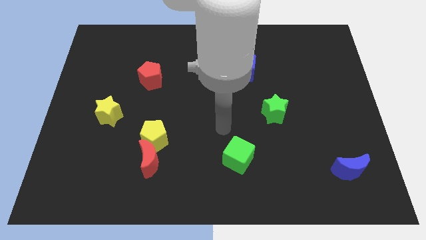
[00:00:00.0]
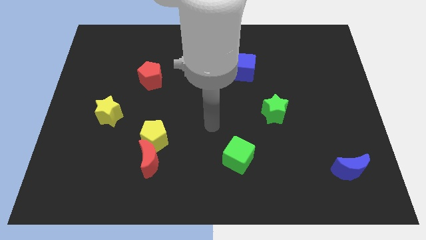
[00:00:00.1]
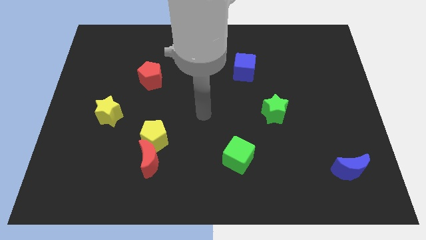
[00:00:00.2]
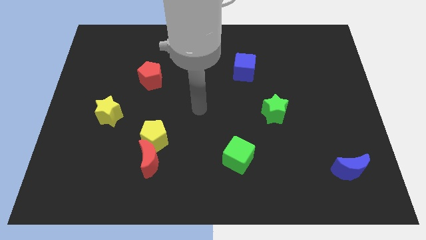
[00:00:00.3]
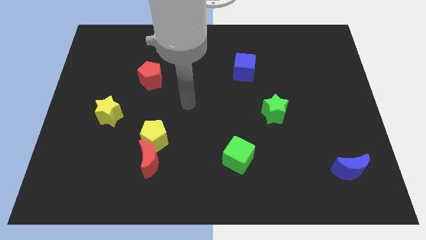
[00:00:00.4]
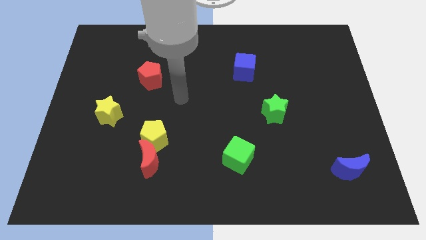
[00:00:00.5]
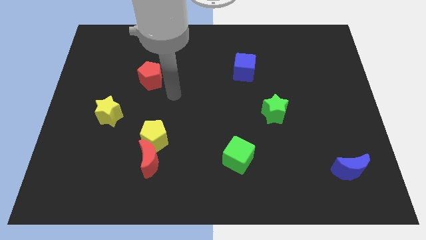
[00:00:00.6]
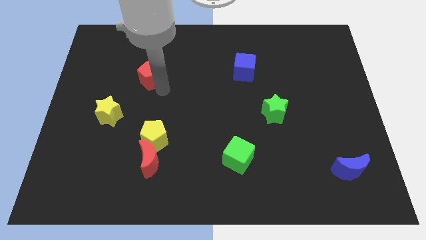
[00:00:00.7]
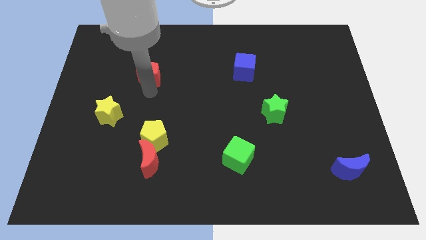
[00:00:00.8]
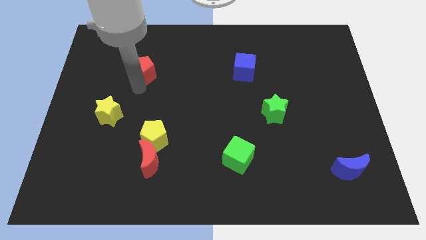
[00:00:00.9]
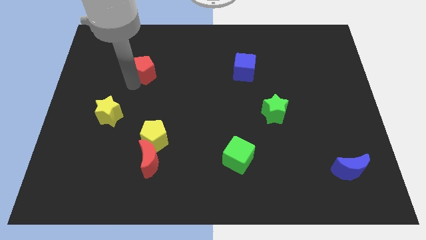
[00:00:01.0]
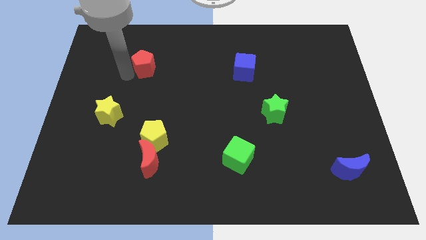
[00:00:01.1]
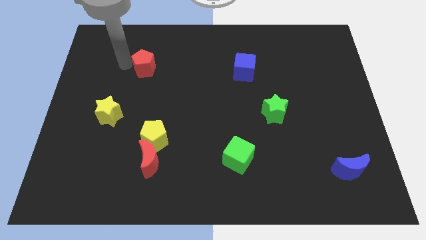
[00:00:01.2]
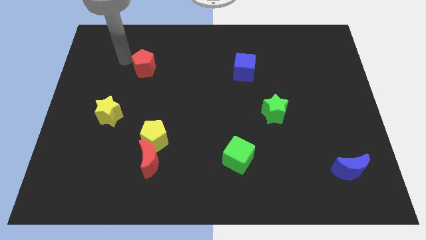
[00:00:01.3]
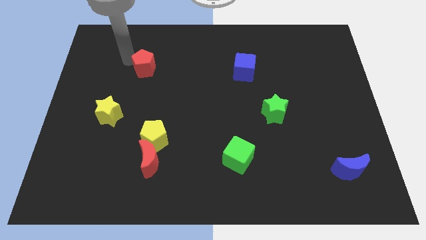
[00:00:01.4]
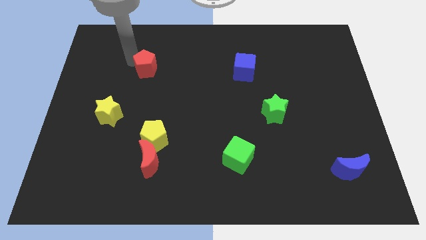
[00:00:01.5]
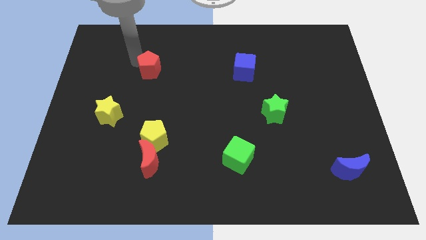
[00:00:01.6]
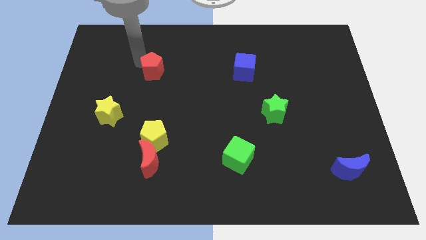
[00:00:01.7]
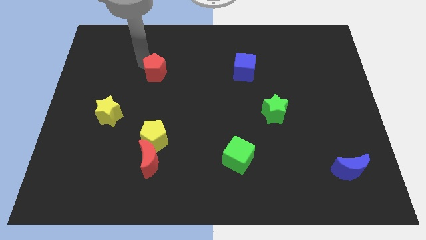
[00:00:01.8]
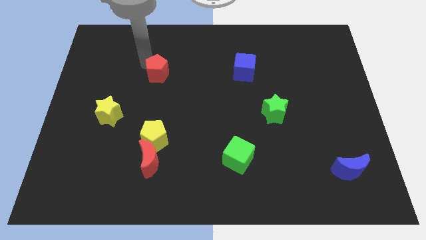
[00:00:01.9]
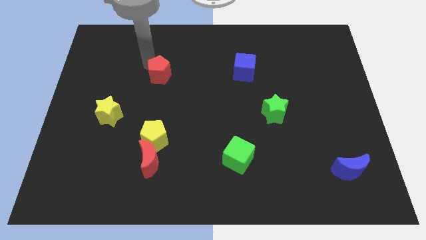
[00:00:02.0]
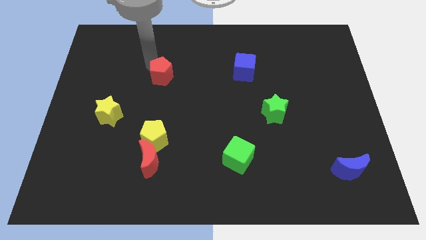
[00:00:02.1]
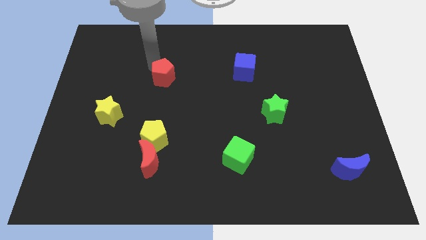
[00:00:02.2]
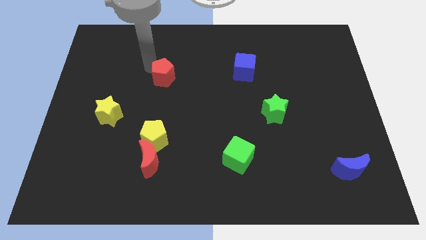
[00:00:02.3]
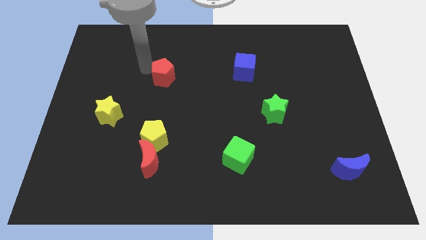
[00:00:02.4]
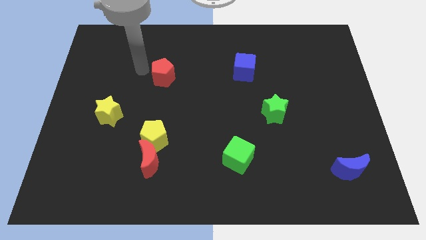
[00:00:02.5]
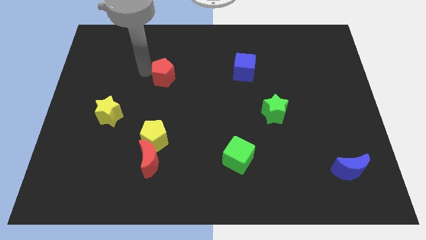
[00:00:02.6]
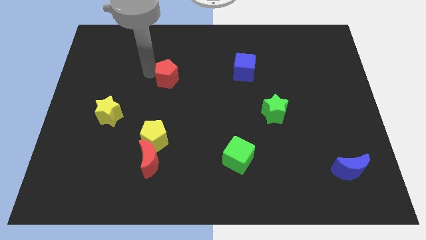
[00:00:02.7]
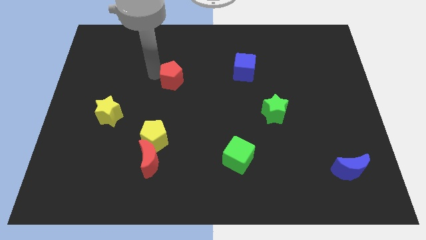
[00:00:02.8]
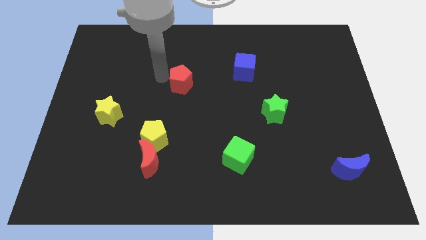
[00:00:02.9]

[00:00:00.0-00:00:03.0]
slide the red pentagon right slightly

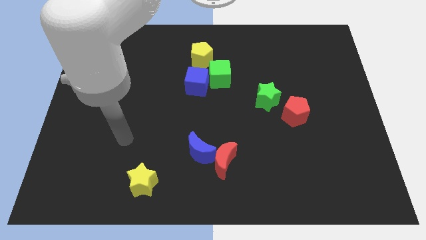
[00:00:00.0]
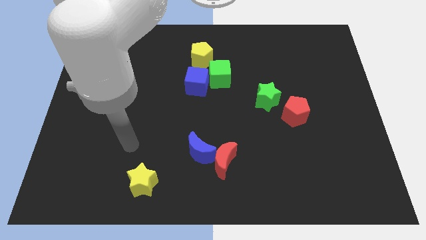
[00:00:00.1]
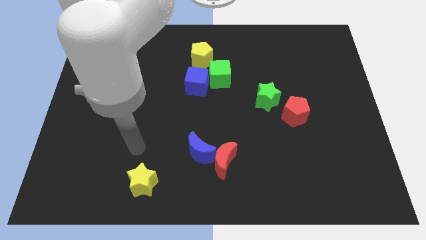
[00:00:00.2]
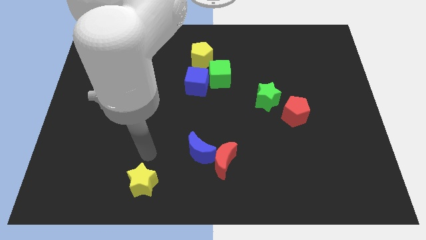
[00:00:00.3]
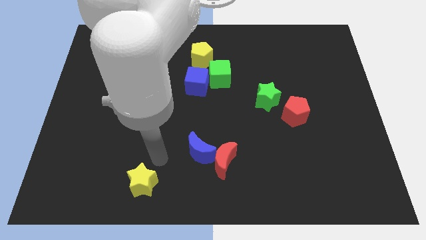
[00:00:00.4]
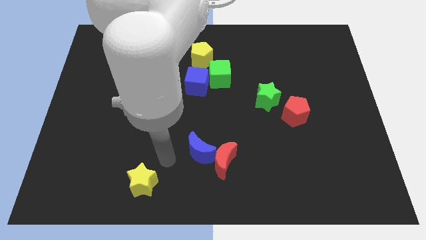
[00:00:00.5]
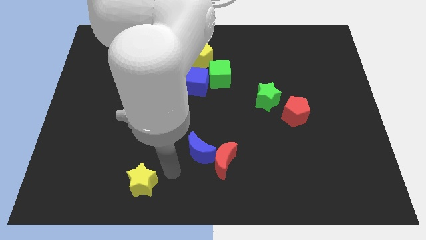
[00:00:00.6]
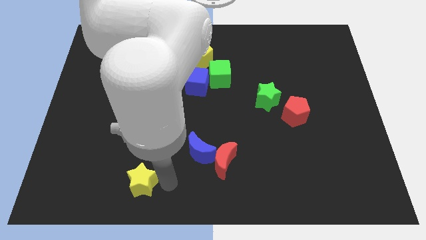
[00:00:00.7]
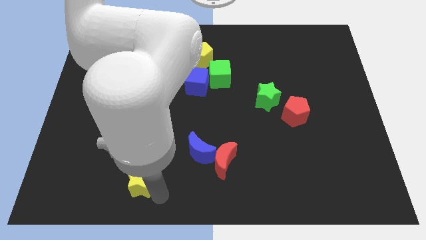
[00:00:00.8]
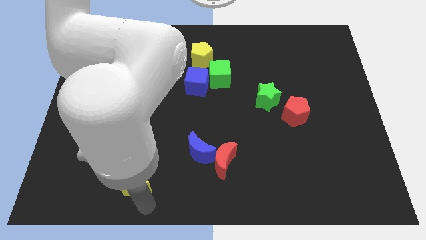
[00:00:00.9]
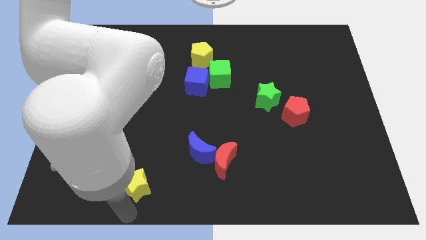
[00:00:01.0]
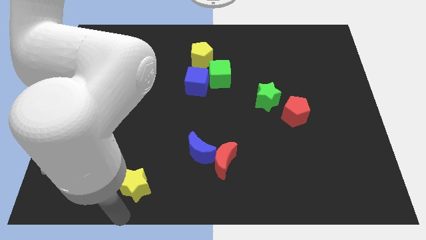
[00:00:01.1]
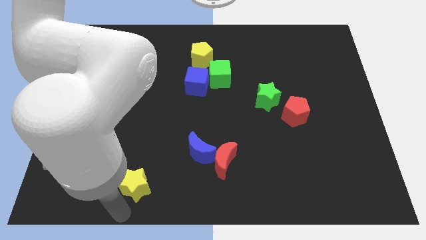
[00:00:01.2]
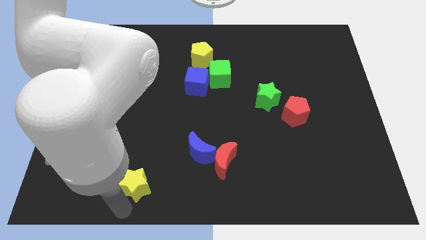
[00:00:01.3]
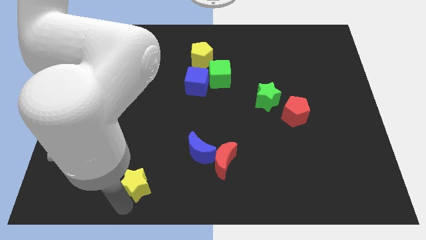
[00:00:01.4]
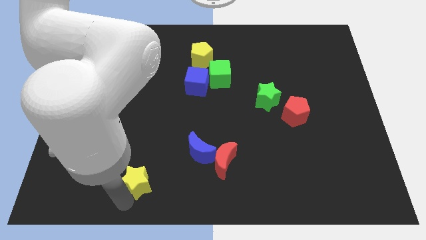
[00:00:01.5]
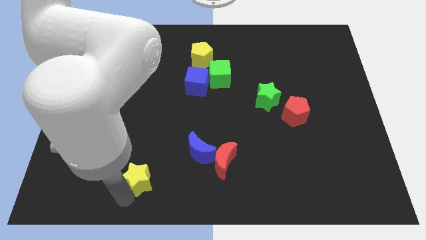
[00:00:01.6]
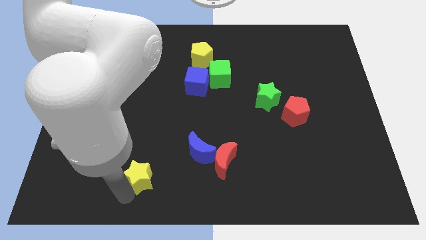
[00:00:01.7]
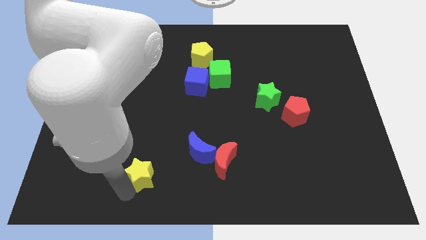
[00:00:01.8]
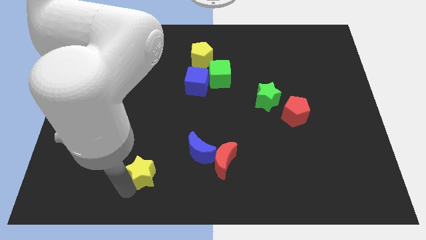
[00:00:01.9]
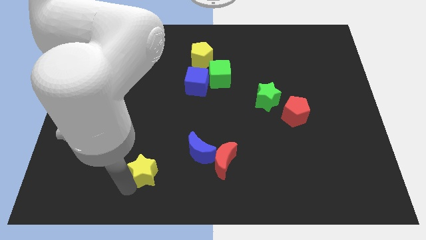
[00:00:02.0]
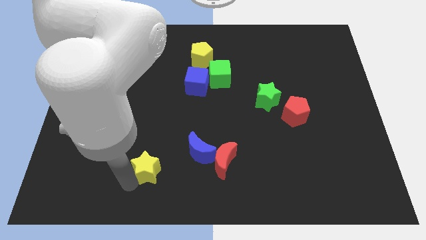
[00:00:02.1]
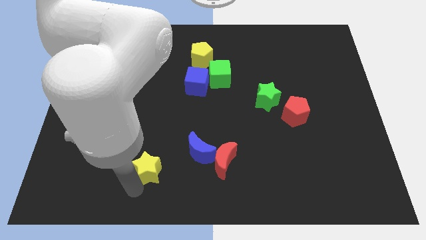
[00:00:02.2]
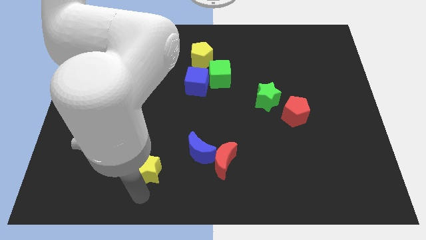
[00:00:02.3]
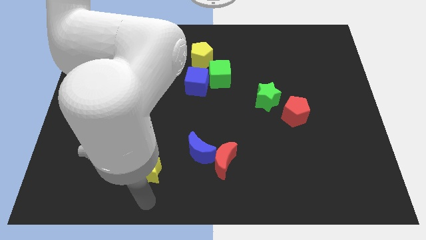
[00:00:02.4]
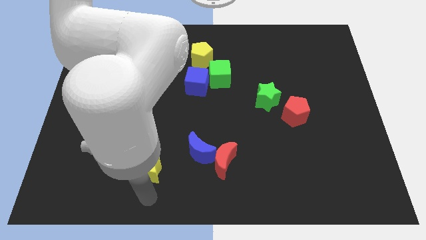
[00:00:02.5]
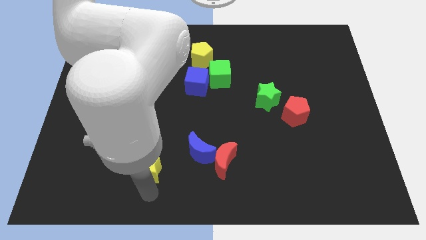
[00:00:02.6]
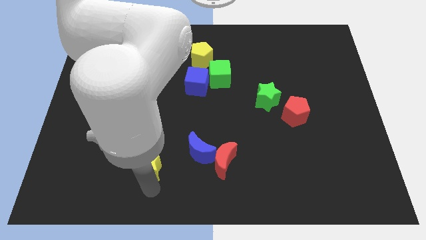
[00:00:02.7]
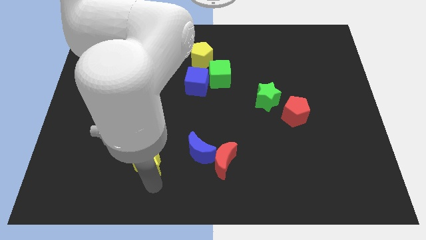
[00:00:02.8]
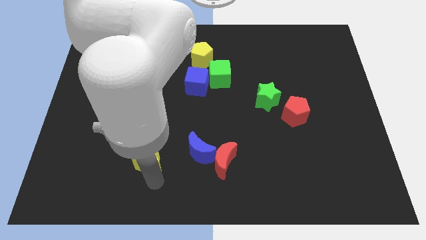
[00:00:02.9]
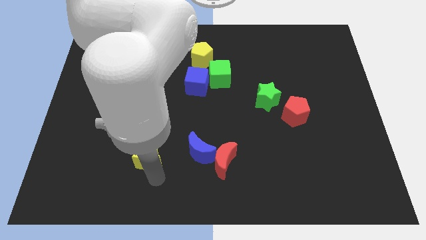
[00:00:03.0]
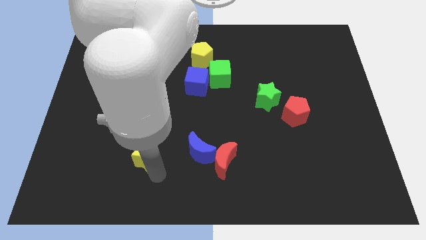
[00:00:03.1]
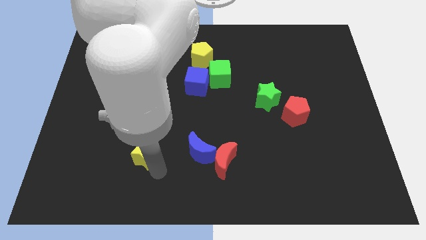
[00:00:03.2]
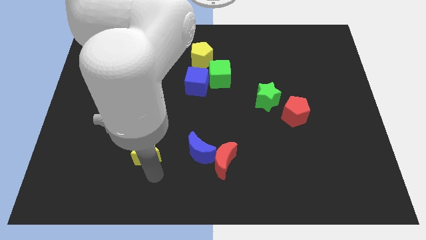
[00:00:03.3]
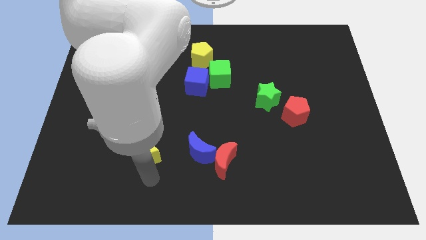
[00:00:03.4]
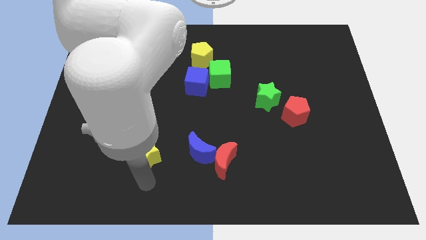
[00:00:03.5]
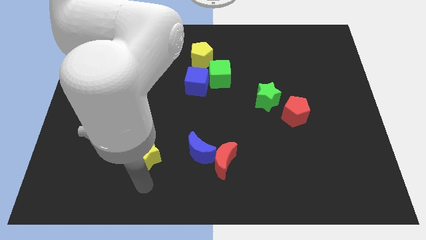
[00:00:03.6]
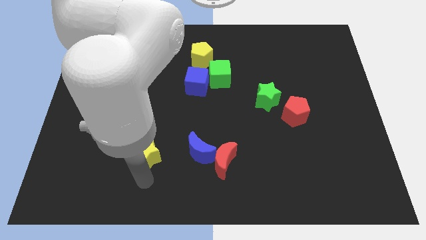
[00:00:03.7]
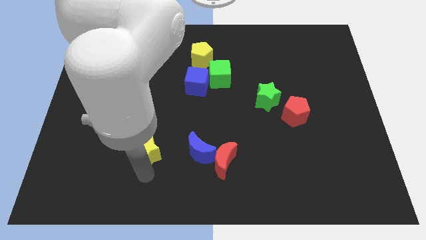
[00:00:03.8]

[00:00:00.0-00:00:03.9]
move the yellow star up slightly

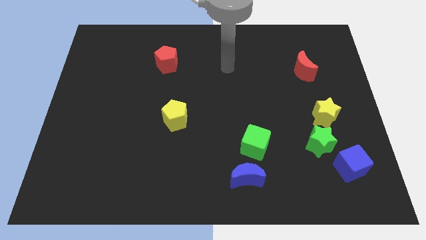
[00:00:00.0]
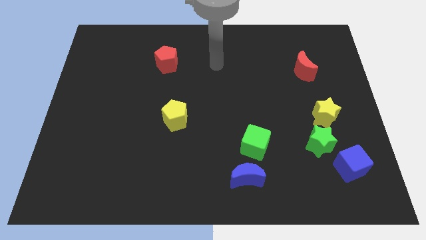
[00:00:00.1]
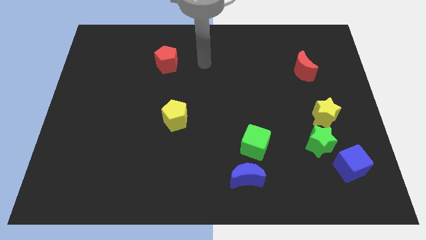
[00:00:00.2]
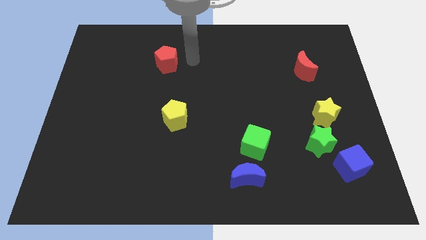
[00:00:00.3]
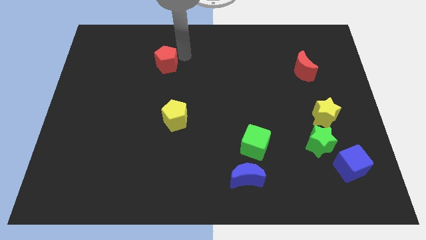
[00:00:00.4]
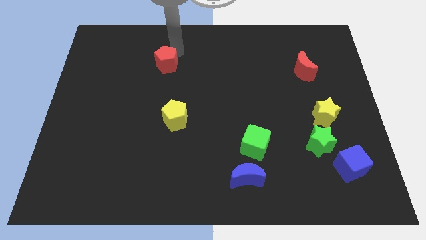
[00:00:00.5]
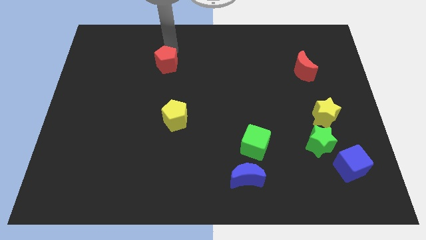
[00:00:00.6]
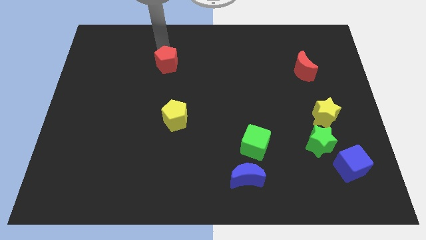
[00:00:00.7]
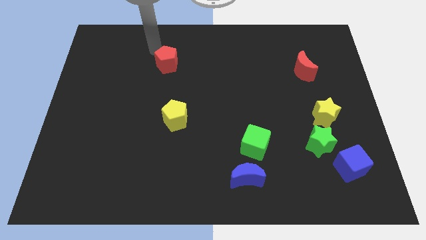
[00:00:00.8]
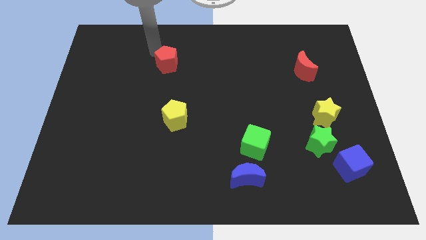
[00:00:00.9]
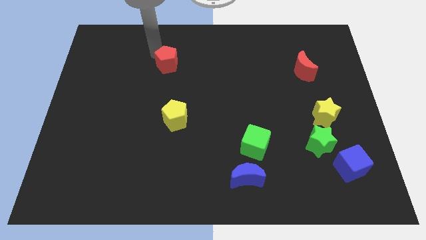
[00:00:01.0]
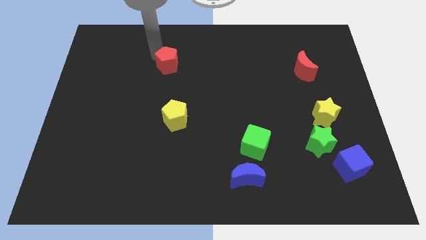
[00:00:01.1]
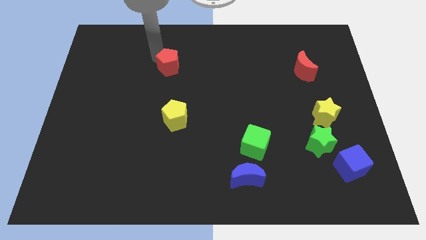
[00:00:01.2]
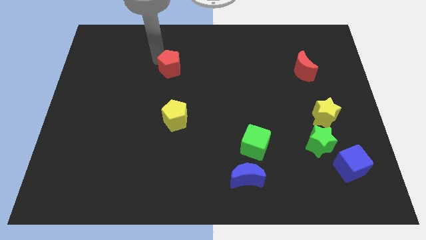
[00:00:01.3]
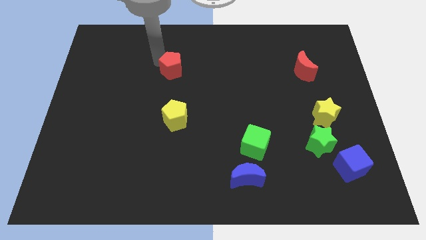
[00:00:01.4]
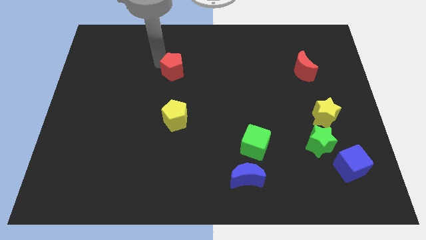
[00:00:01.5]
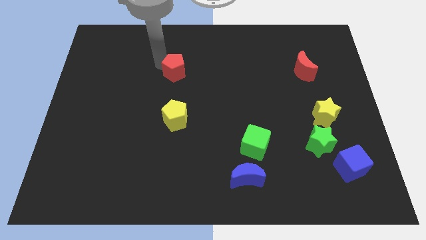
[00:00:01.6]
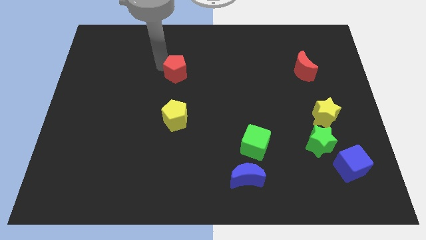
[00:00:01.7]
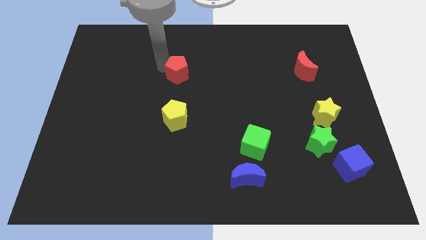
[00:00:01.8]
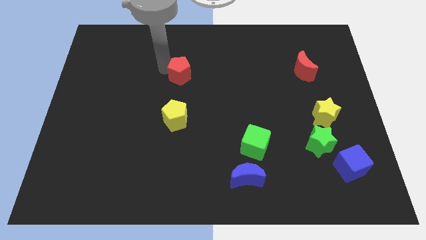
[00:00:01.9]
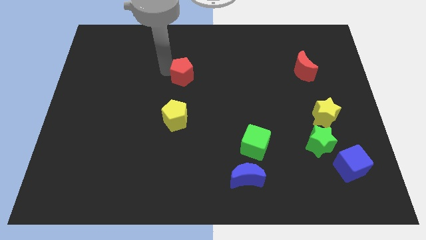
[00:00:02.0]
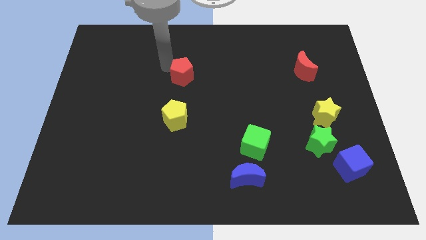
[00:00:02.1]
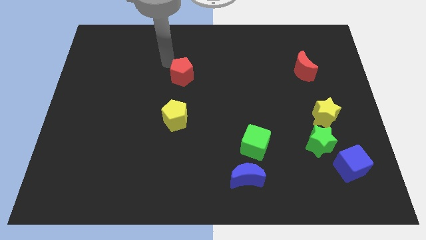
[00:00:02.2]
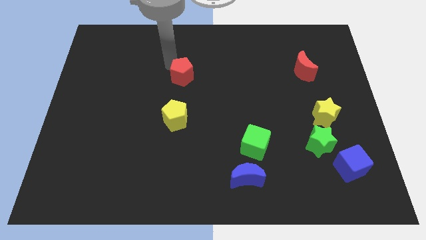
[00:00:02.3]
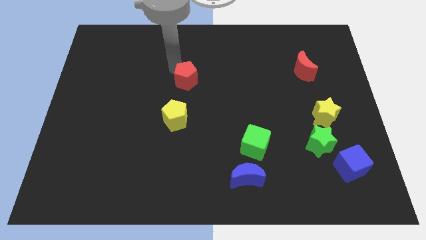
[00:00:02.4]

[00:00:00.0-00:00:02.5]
slide the red pentagon a little down and to the right diagonally
